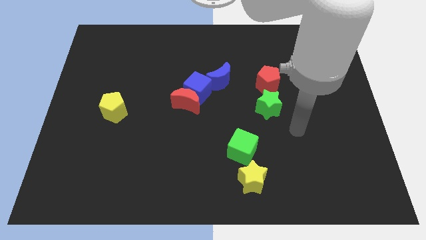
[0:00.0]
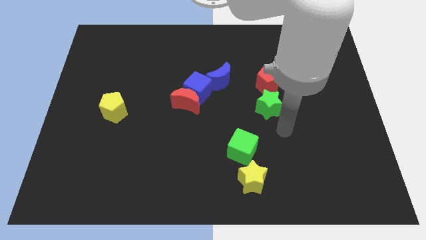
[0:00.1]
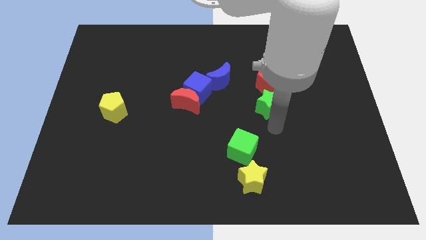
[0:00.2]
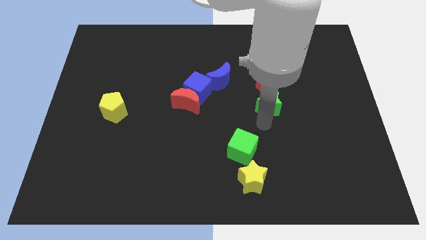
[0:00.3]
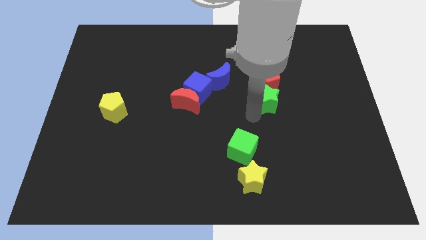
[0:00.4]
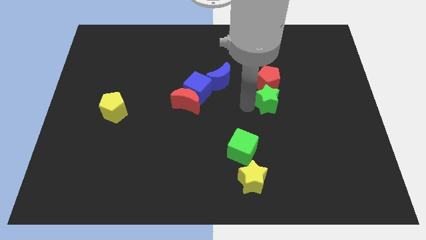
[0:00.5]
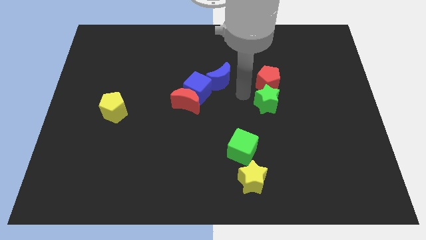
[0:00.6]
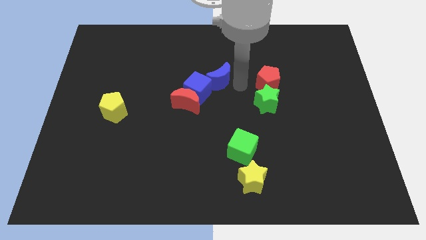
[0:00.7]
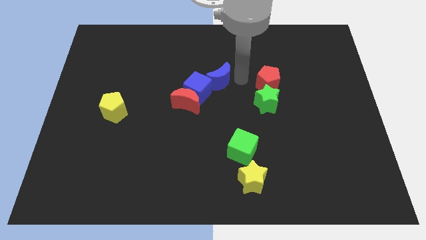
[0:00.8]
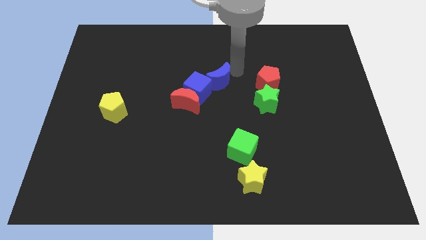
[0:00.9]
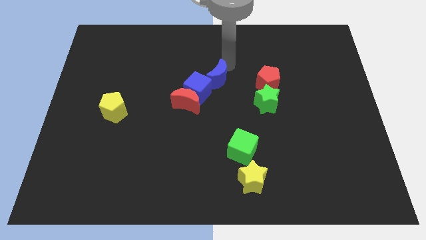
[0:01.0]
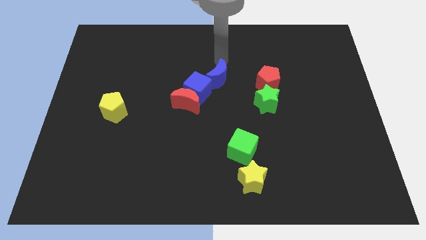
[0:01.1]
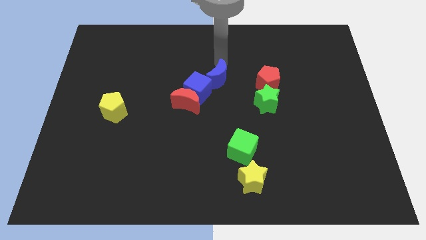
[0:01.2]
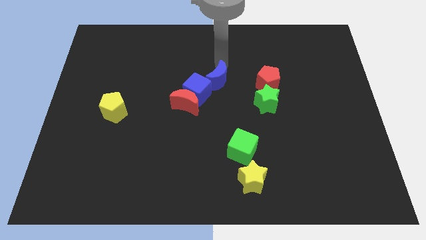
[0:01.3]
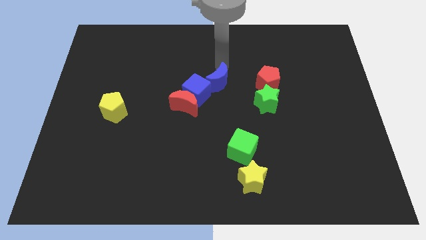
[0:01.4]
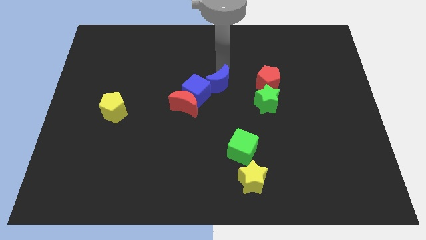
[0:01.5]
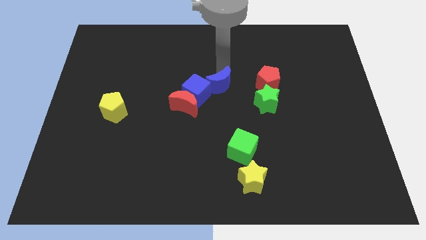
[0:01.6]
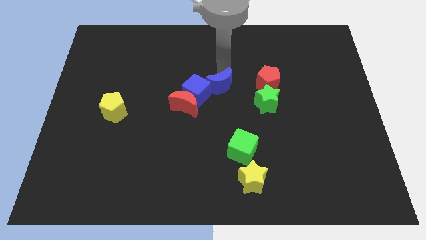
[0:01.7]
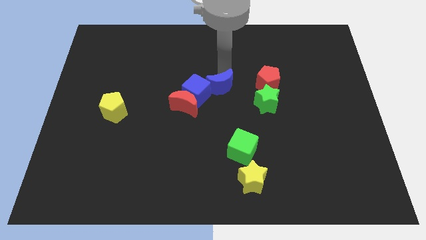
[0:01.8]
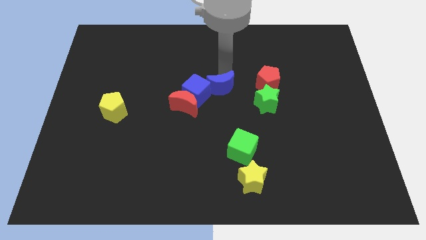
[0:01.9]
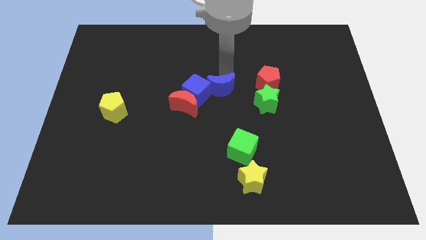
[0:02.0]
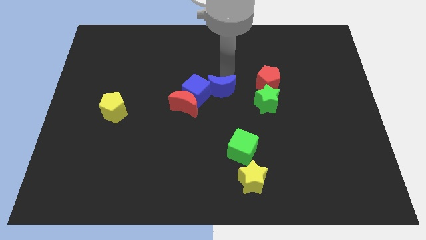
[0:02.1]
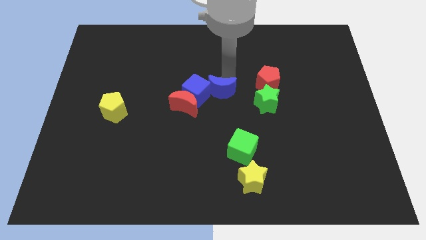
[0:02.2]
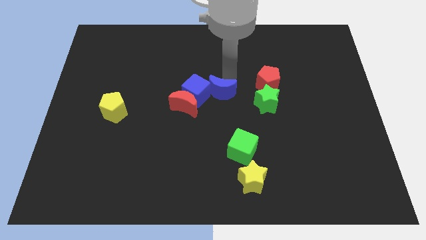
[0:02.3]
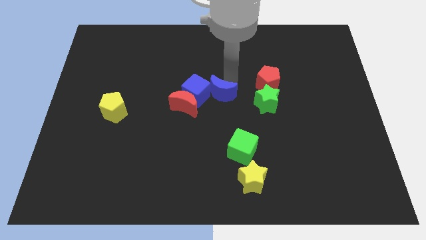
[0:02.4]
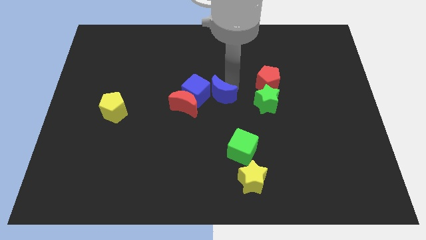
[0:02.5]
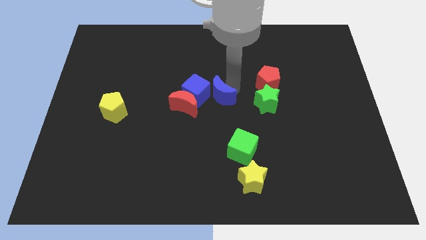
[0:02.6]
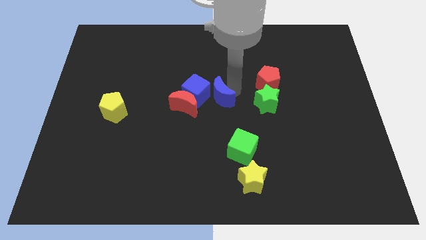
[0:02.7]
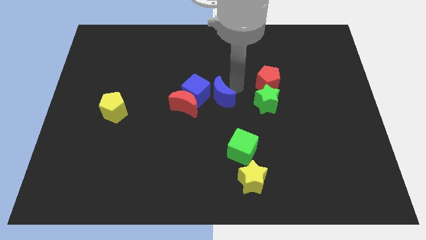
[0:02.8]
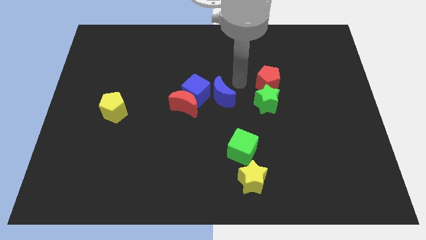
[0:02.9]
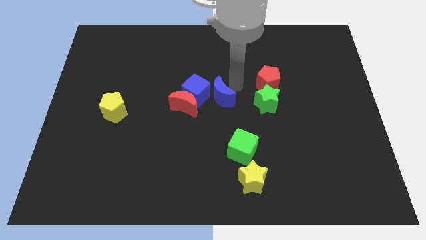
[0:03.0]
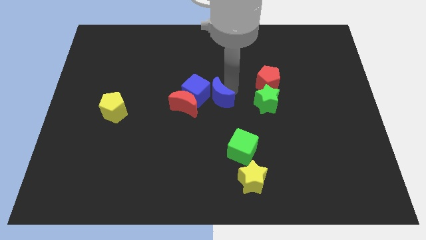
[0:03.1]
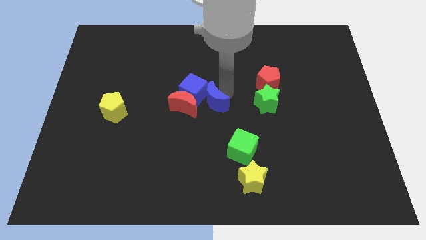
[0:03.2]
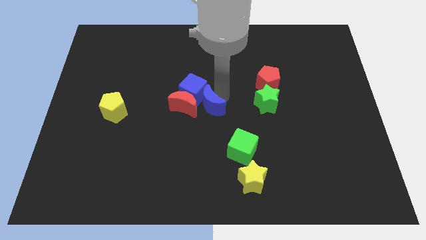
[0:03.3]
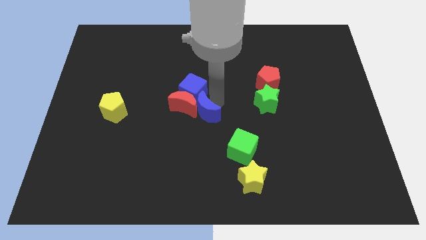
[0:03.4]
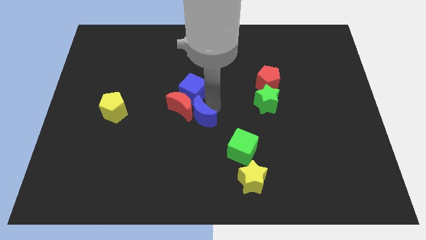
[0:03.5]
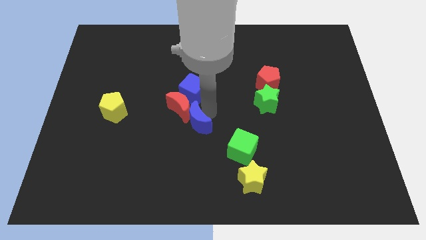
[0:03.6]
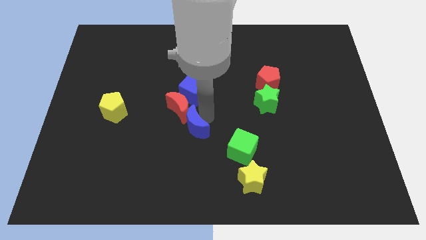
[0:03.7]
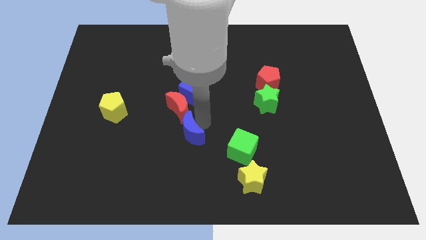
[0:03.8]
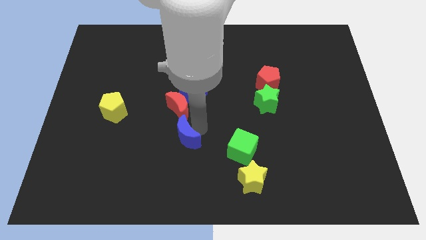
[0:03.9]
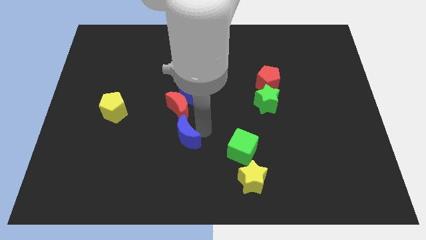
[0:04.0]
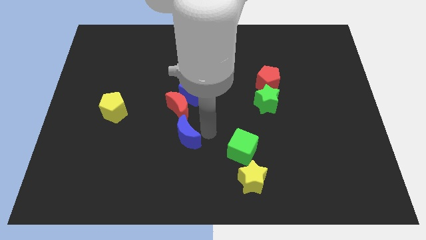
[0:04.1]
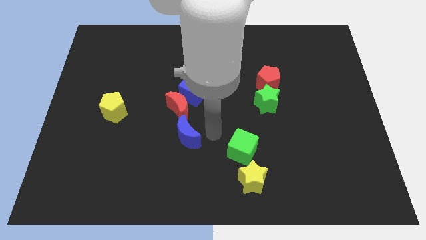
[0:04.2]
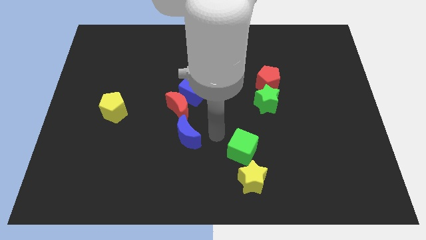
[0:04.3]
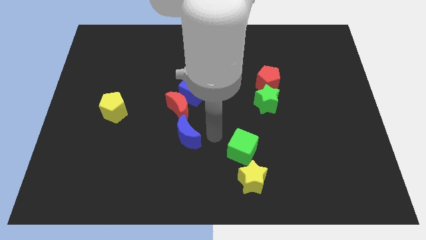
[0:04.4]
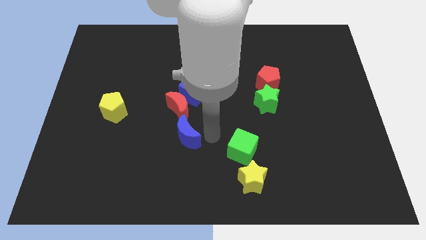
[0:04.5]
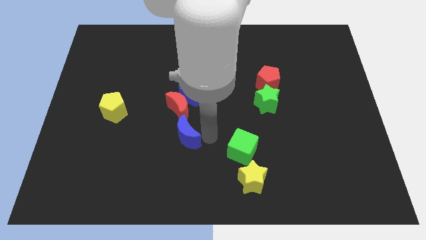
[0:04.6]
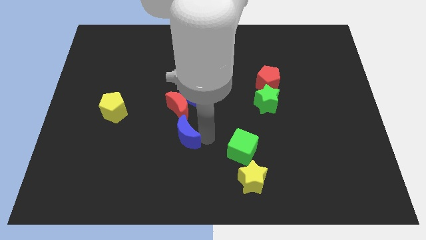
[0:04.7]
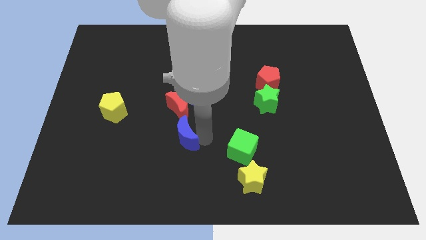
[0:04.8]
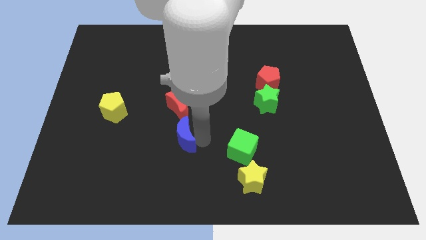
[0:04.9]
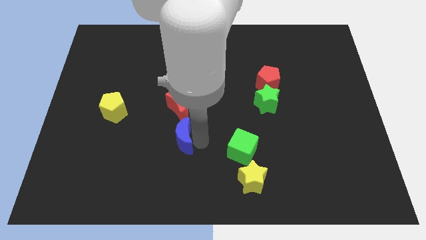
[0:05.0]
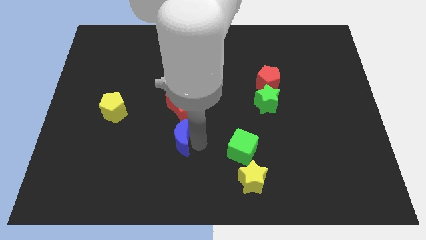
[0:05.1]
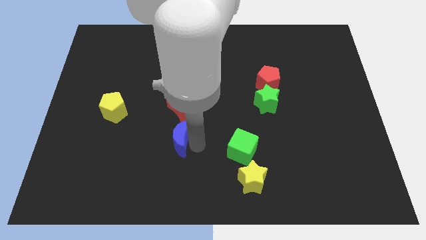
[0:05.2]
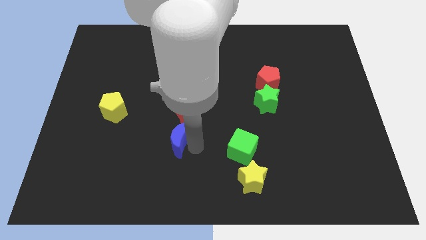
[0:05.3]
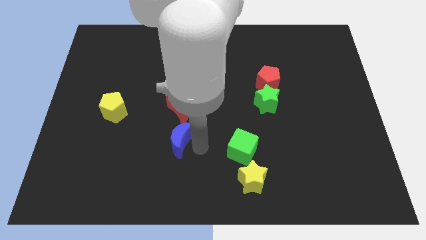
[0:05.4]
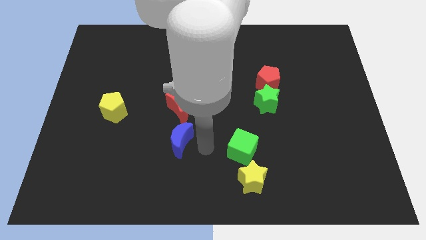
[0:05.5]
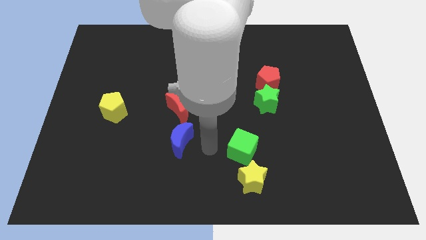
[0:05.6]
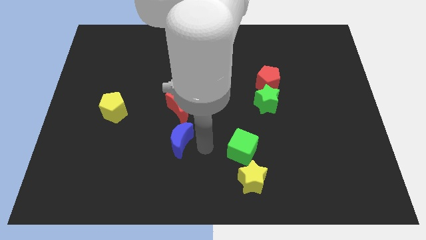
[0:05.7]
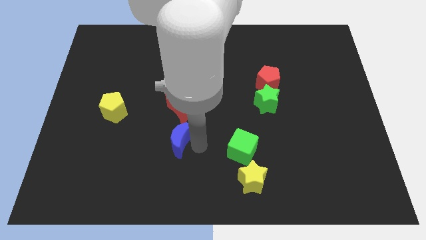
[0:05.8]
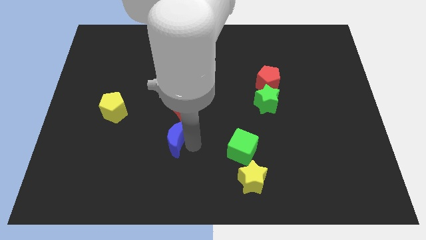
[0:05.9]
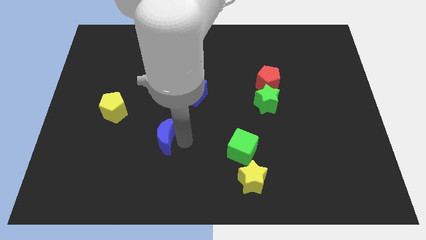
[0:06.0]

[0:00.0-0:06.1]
slide the blue moon downwards and then left

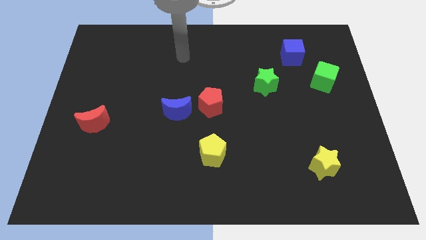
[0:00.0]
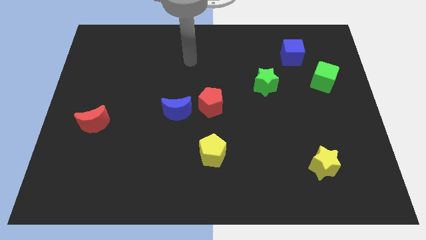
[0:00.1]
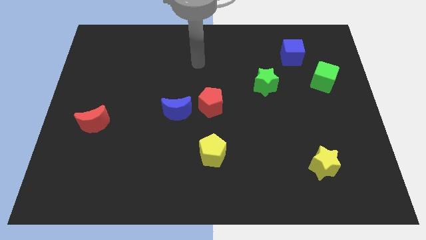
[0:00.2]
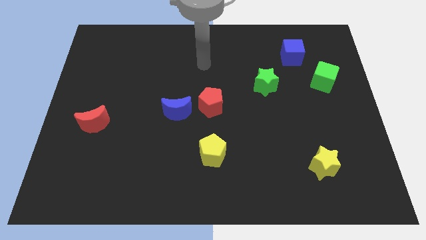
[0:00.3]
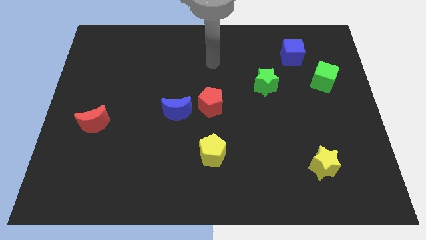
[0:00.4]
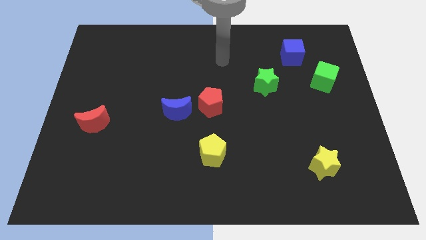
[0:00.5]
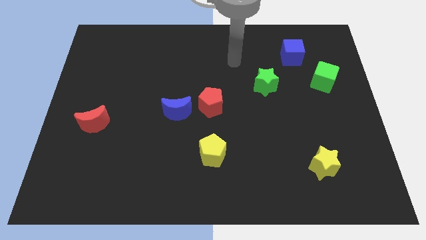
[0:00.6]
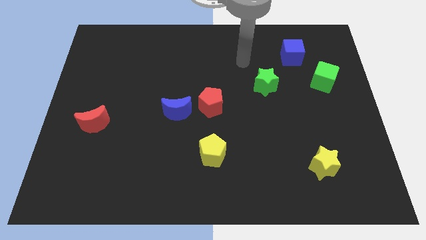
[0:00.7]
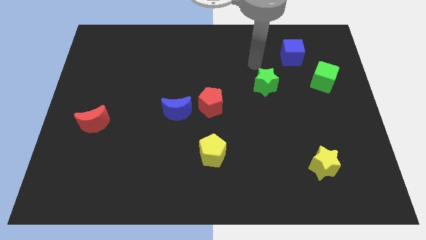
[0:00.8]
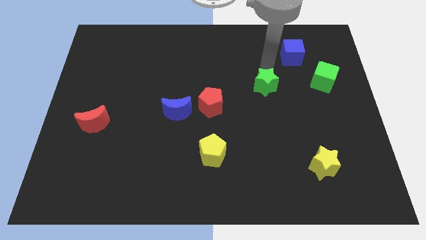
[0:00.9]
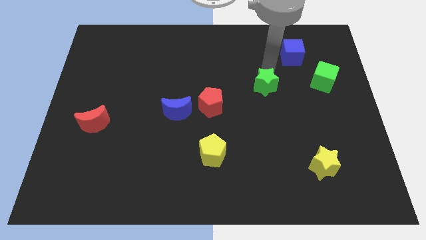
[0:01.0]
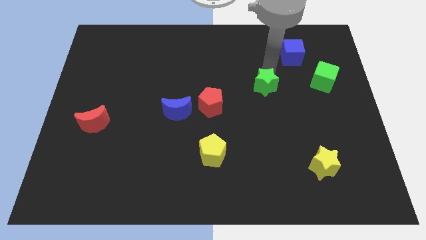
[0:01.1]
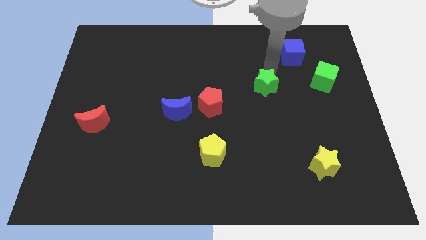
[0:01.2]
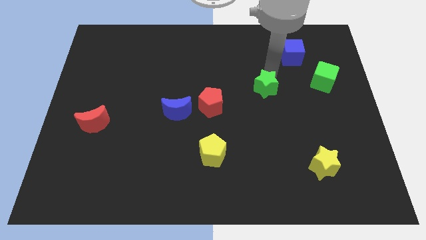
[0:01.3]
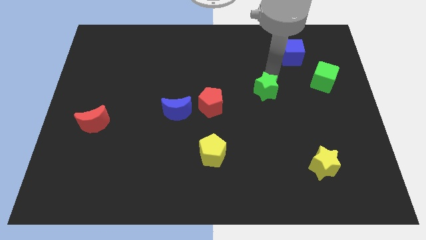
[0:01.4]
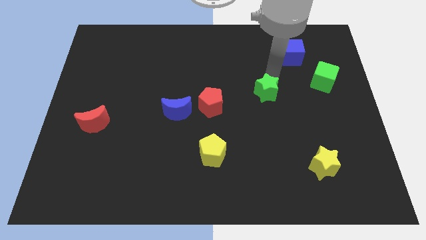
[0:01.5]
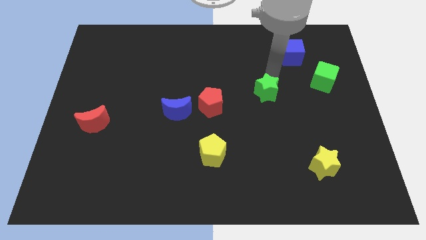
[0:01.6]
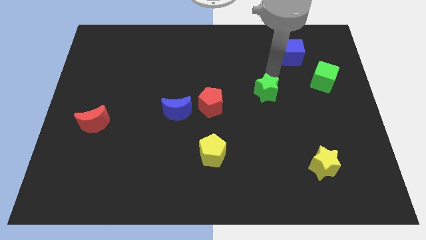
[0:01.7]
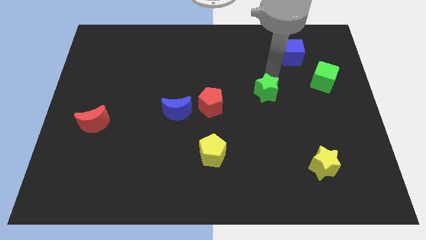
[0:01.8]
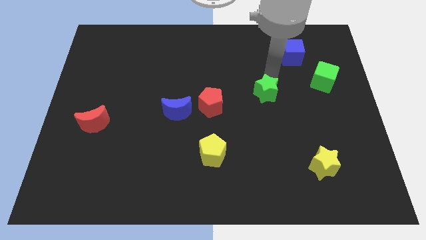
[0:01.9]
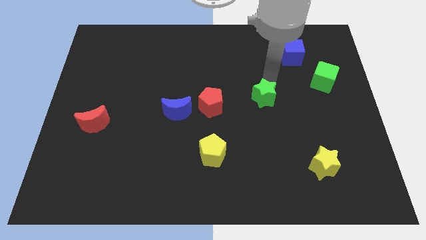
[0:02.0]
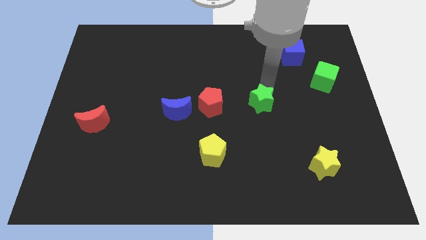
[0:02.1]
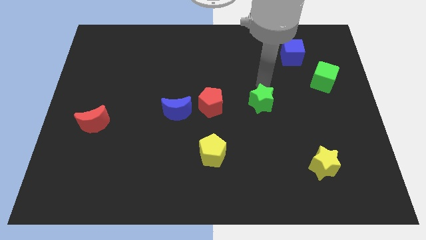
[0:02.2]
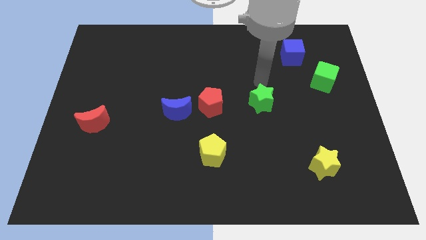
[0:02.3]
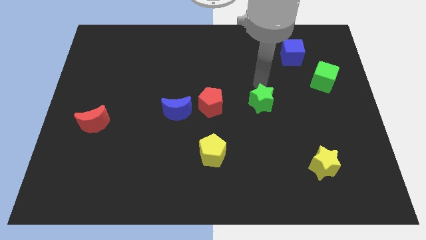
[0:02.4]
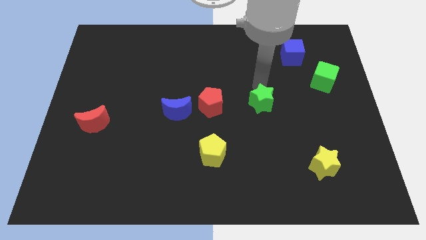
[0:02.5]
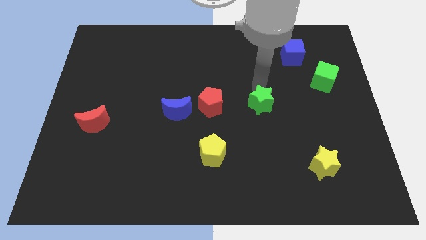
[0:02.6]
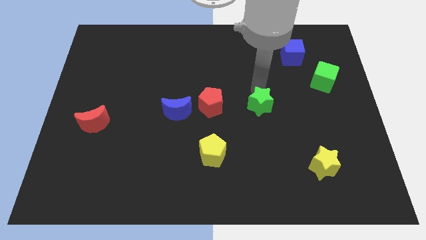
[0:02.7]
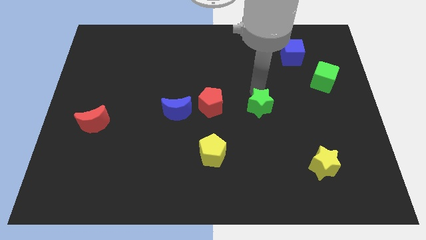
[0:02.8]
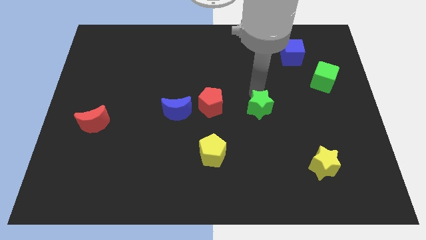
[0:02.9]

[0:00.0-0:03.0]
slightly slide the green star downwards
